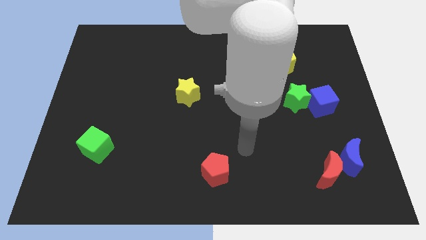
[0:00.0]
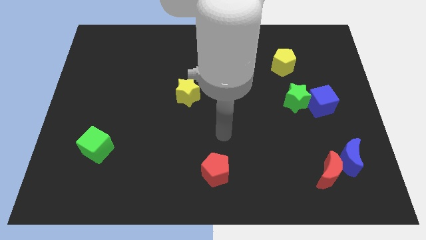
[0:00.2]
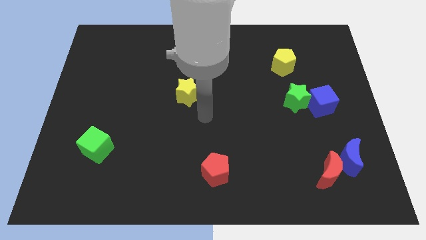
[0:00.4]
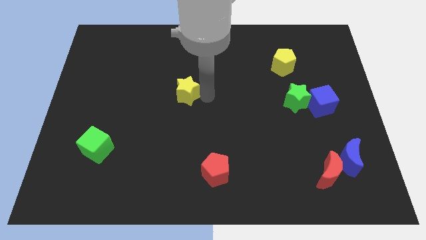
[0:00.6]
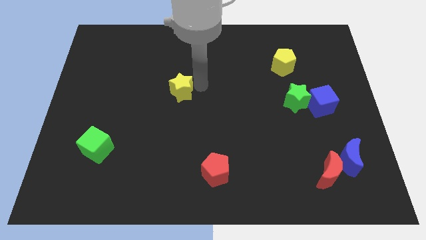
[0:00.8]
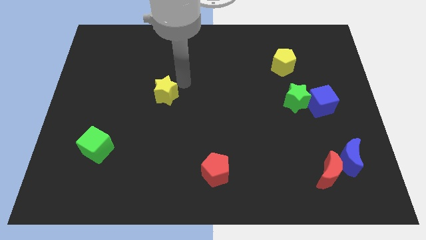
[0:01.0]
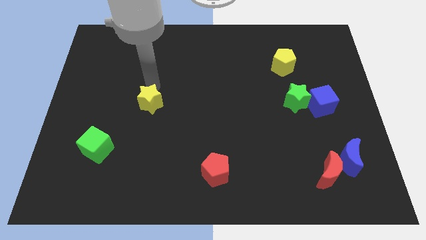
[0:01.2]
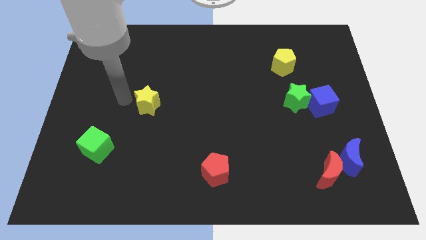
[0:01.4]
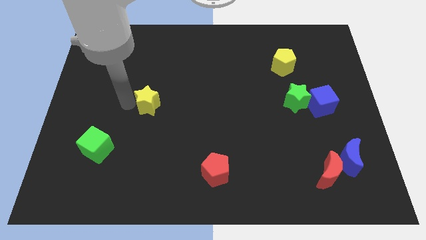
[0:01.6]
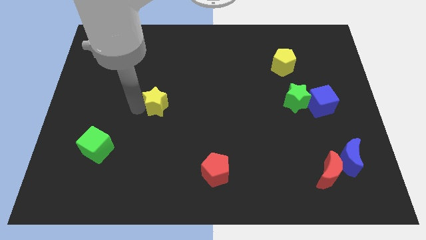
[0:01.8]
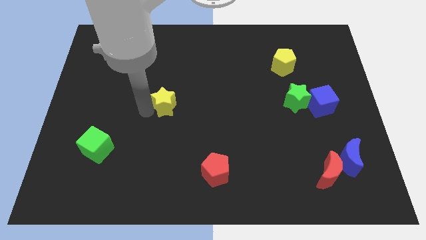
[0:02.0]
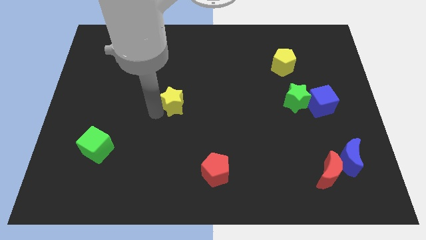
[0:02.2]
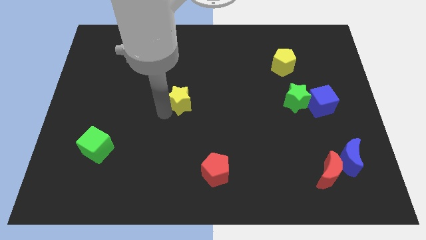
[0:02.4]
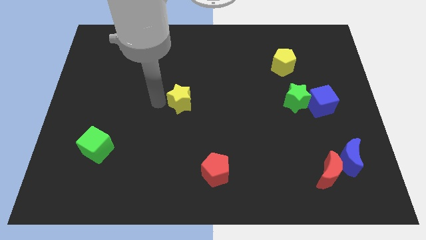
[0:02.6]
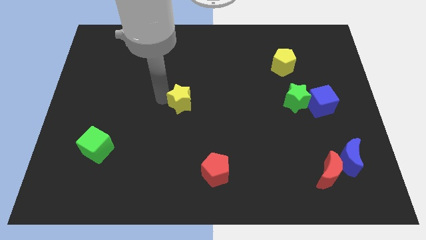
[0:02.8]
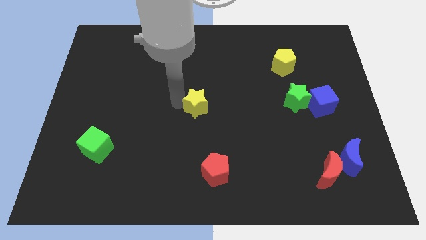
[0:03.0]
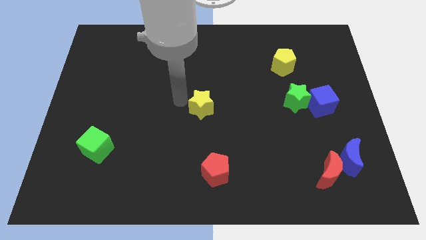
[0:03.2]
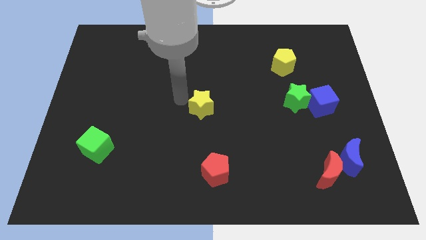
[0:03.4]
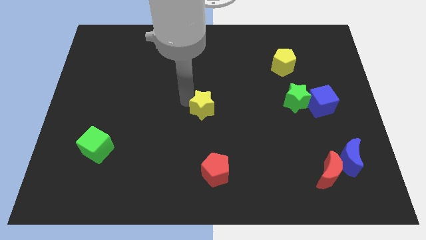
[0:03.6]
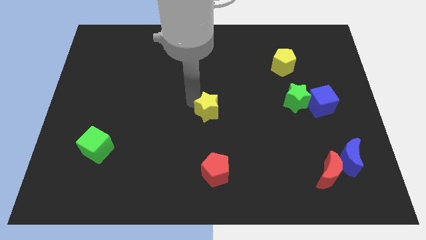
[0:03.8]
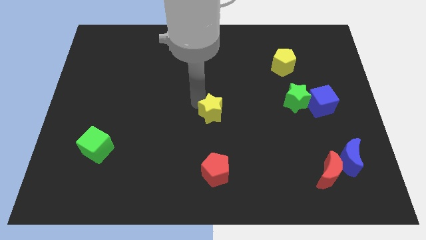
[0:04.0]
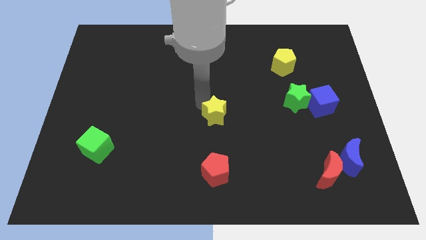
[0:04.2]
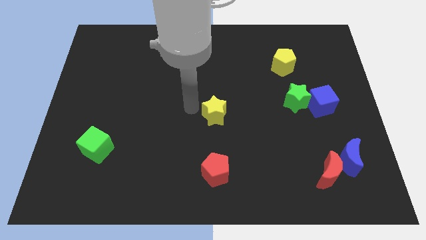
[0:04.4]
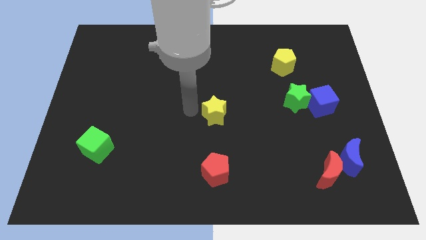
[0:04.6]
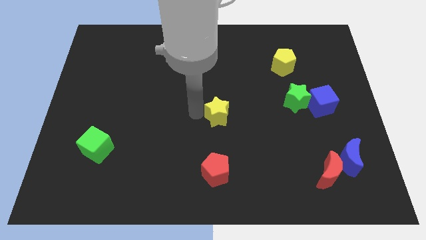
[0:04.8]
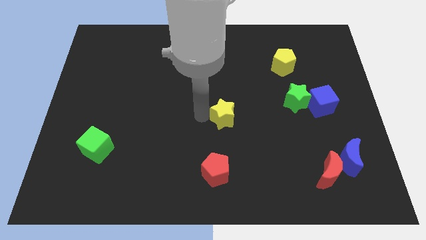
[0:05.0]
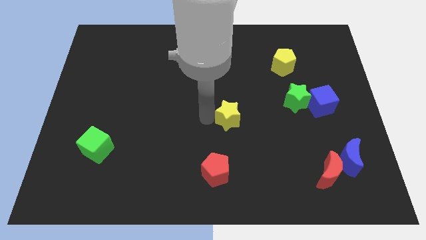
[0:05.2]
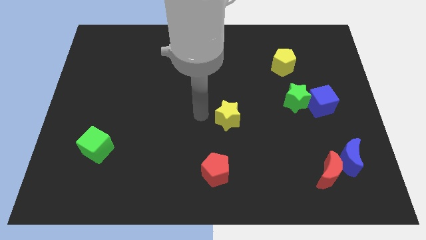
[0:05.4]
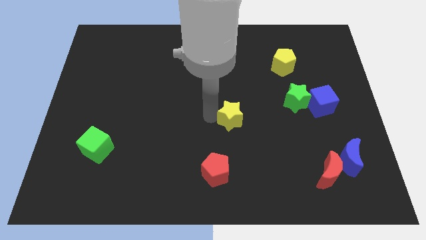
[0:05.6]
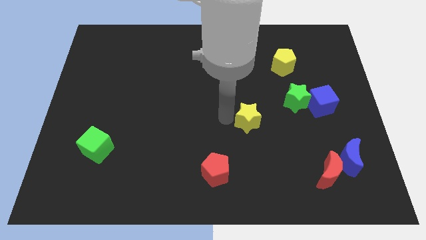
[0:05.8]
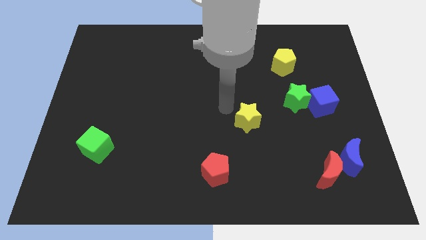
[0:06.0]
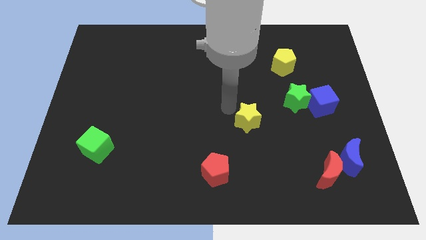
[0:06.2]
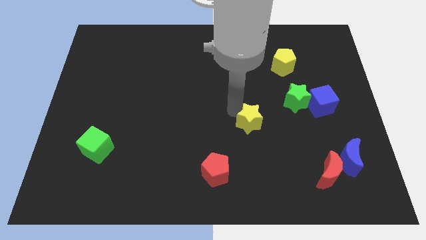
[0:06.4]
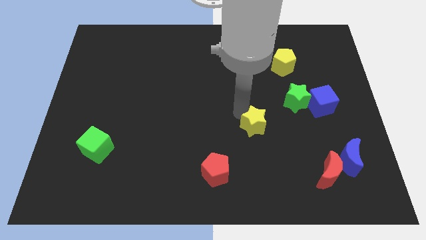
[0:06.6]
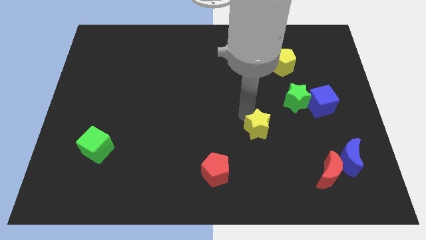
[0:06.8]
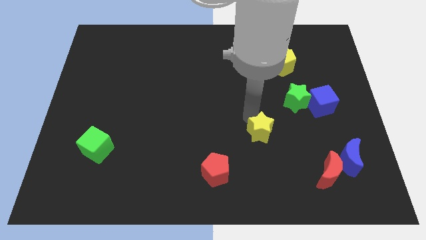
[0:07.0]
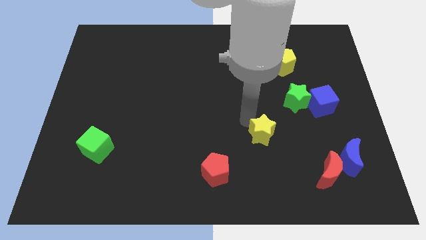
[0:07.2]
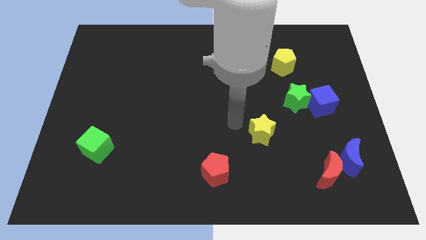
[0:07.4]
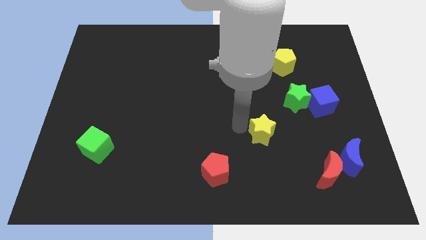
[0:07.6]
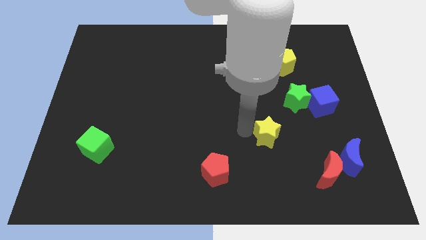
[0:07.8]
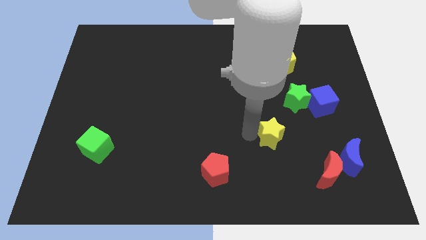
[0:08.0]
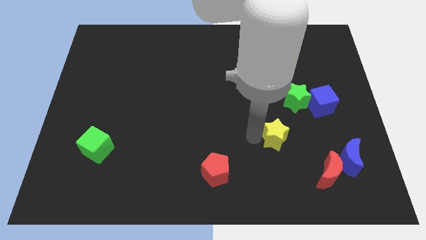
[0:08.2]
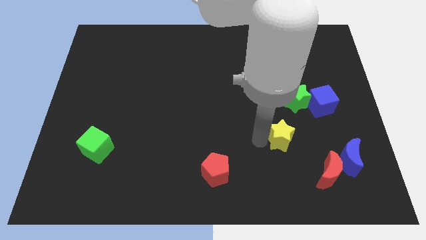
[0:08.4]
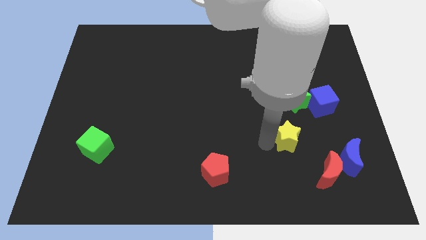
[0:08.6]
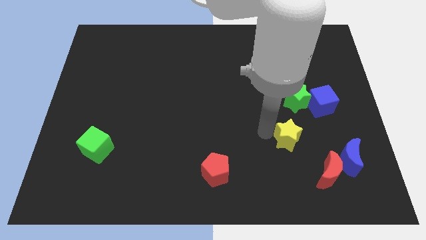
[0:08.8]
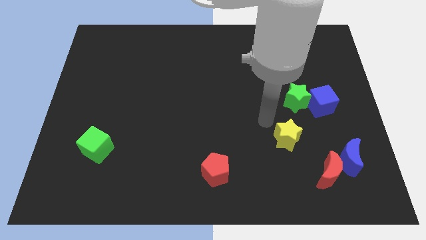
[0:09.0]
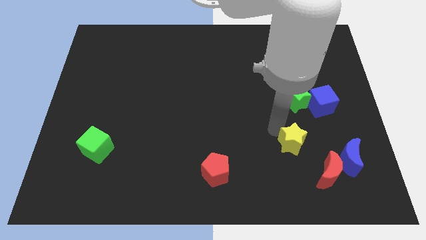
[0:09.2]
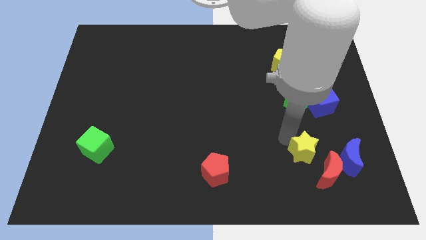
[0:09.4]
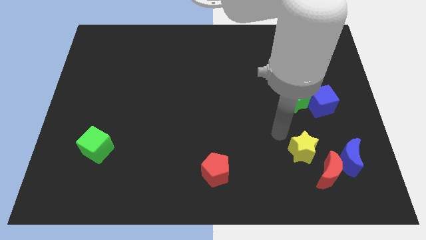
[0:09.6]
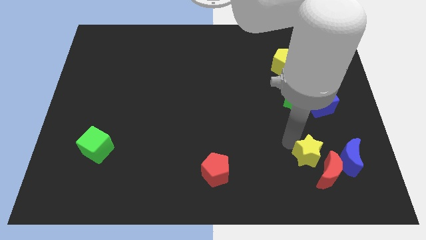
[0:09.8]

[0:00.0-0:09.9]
push the yellow star to the red moon

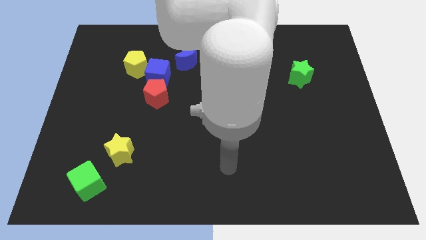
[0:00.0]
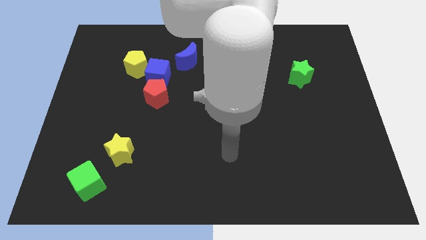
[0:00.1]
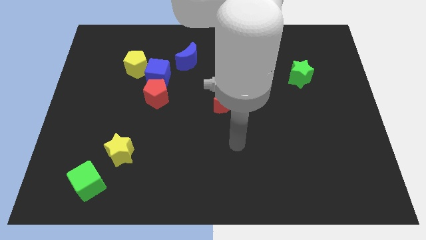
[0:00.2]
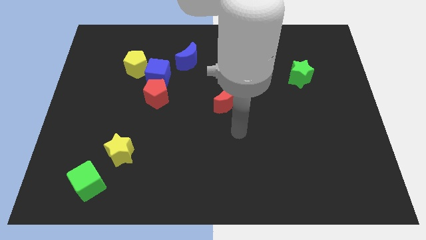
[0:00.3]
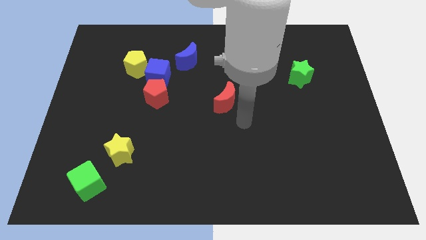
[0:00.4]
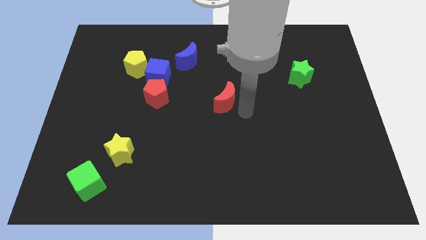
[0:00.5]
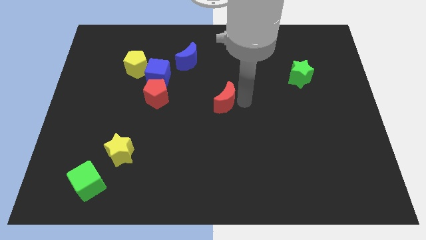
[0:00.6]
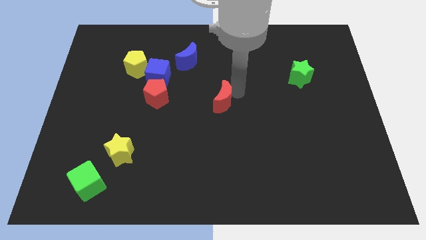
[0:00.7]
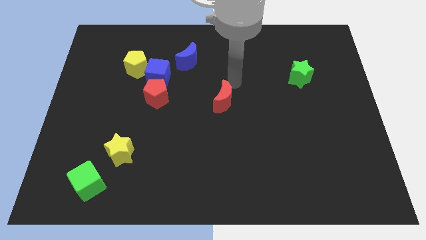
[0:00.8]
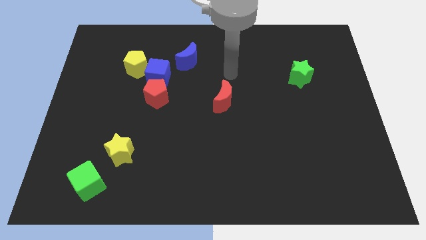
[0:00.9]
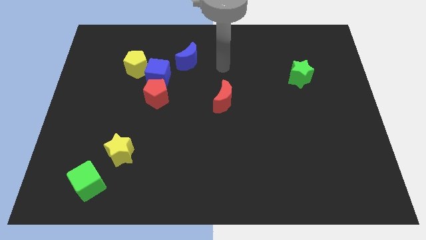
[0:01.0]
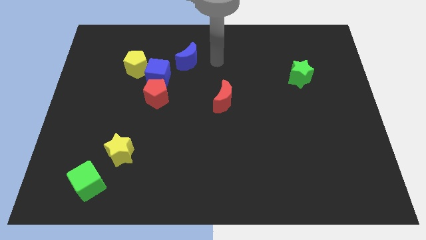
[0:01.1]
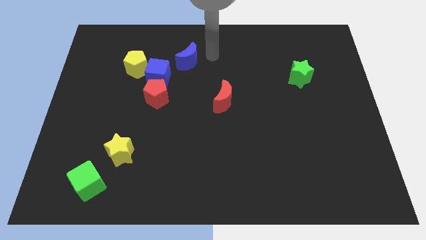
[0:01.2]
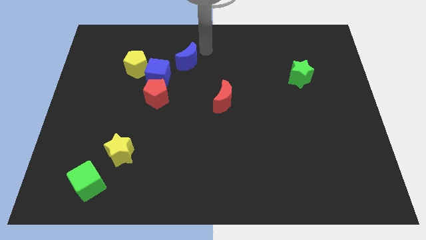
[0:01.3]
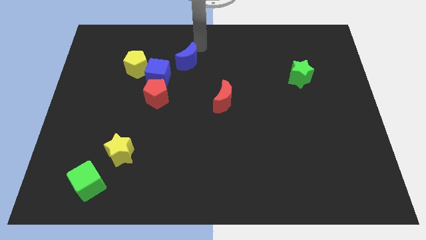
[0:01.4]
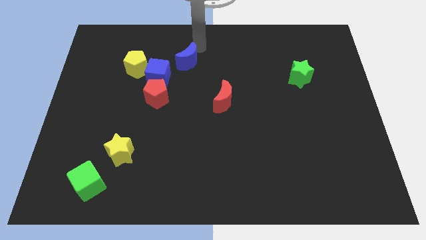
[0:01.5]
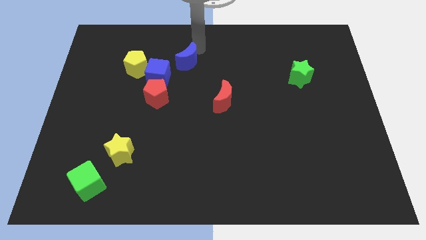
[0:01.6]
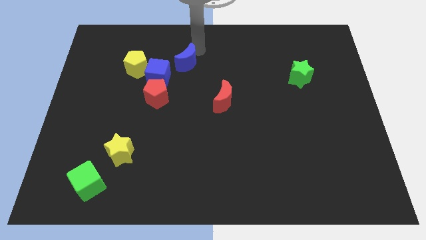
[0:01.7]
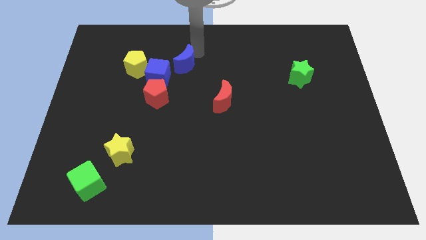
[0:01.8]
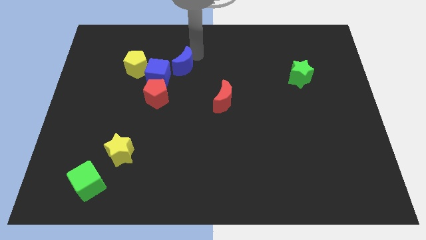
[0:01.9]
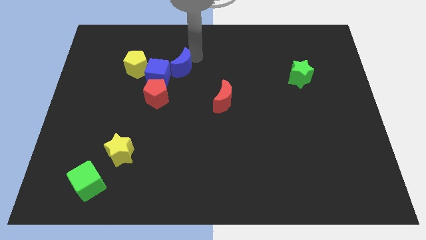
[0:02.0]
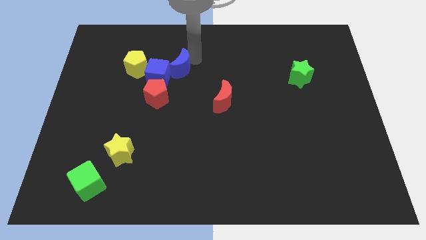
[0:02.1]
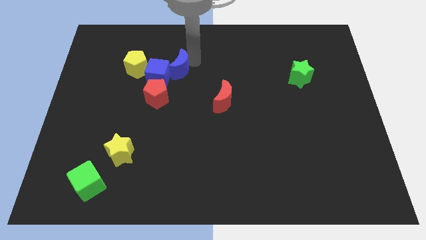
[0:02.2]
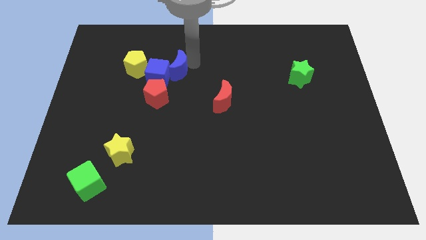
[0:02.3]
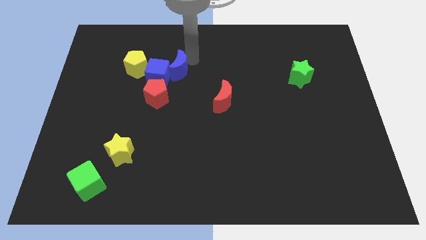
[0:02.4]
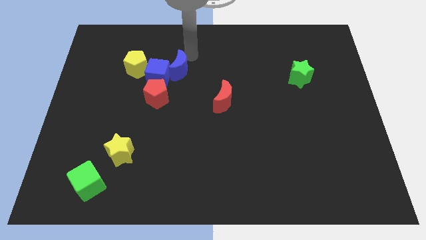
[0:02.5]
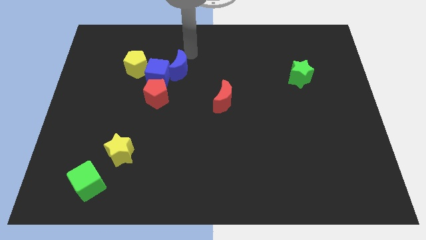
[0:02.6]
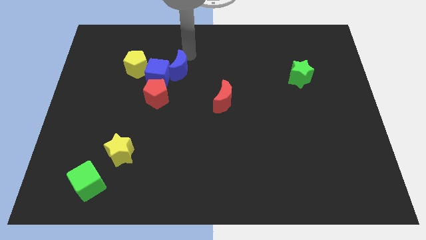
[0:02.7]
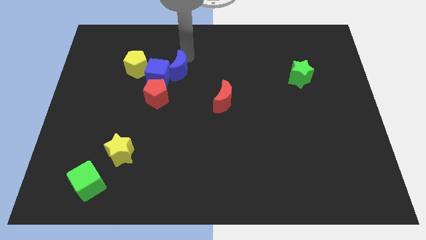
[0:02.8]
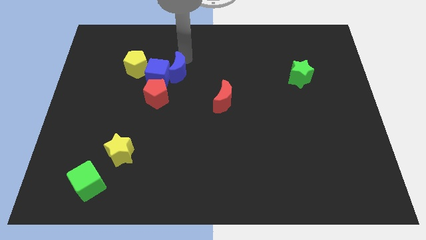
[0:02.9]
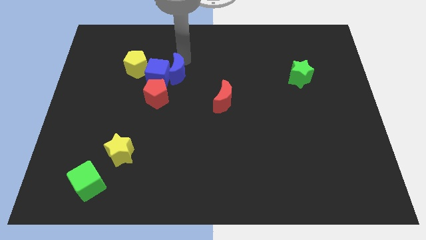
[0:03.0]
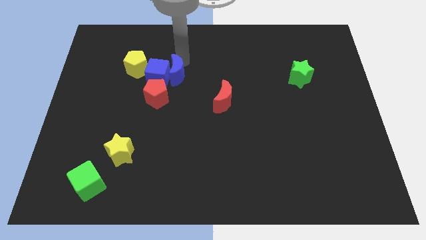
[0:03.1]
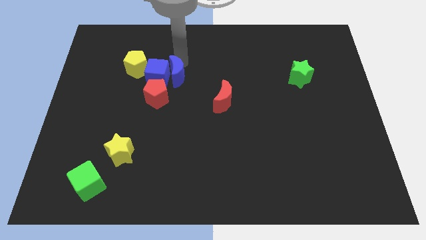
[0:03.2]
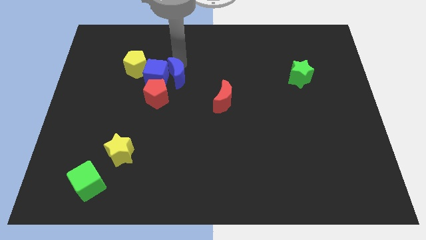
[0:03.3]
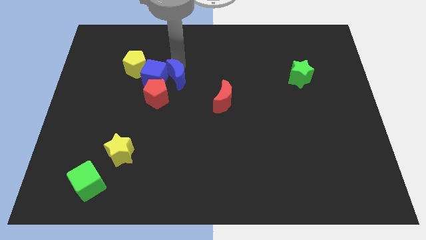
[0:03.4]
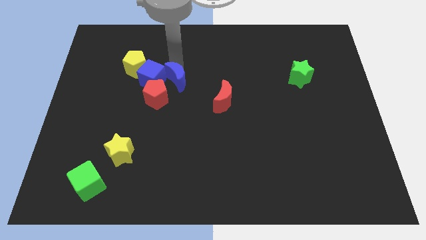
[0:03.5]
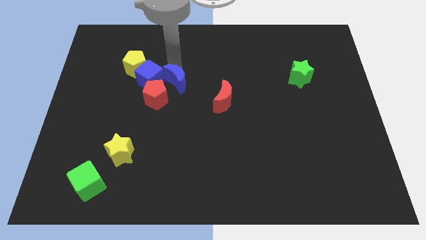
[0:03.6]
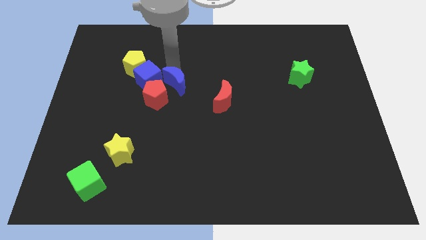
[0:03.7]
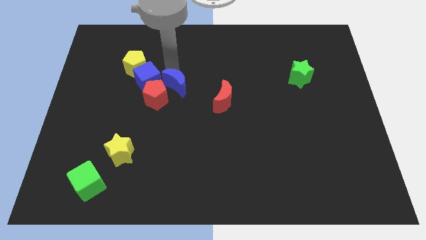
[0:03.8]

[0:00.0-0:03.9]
put the blue moon towards the red pentagon
